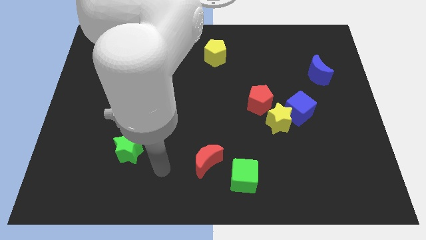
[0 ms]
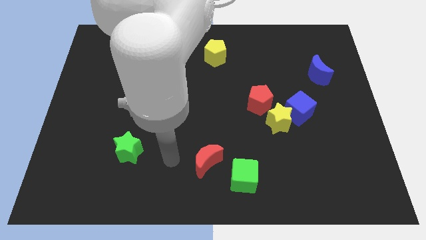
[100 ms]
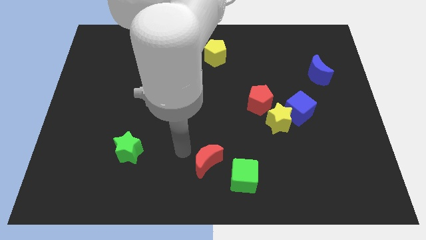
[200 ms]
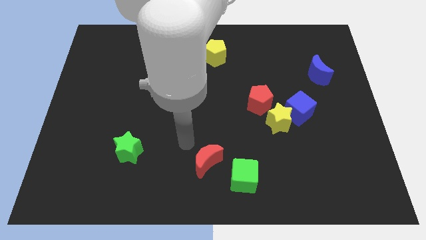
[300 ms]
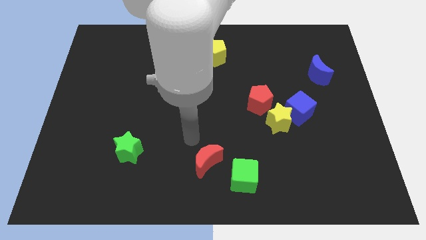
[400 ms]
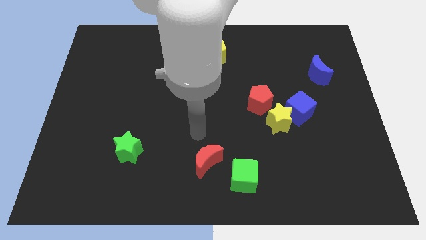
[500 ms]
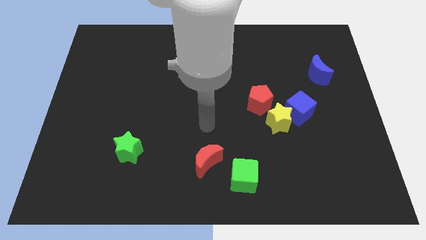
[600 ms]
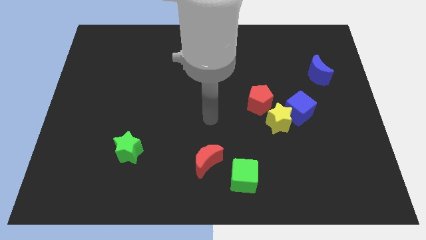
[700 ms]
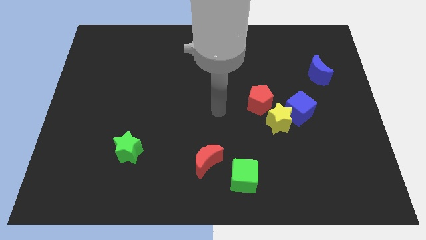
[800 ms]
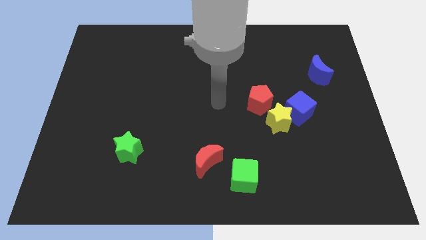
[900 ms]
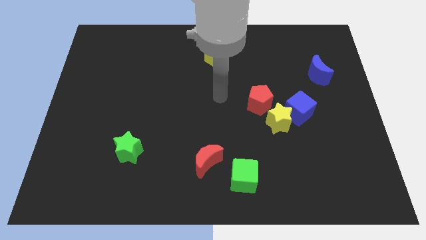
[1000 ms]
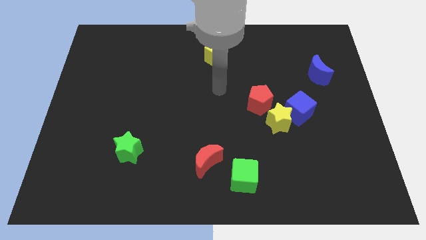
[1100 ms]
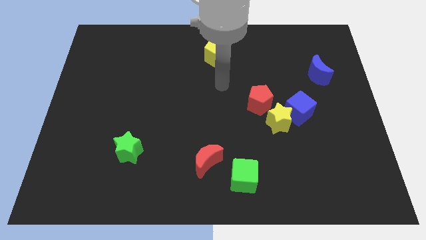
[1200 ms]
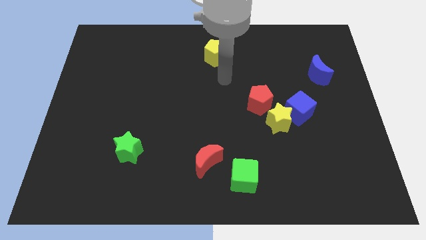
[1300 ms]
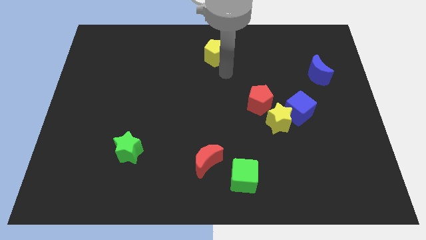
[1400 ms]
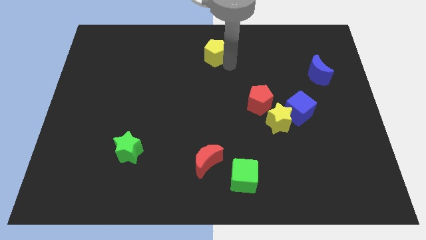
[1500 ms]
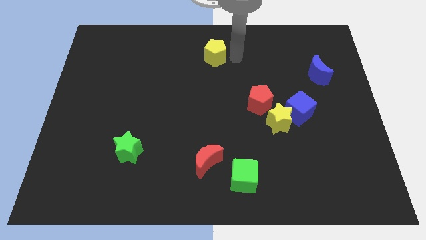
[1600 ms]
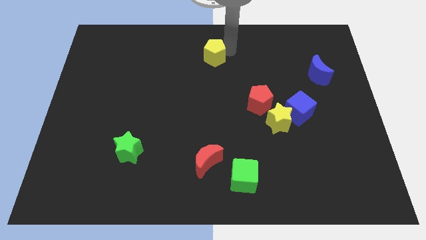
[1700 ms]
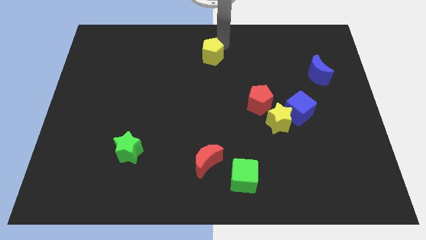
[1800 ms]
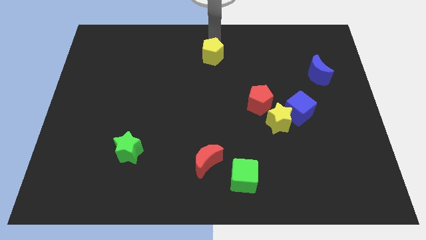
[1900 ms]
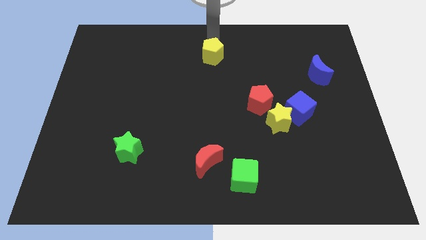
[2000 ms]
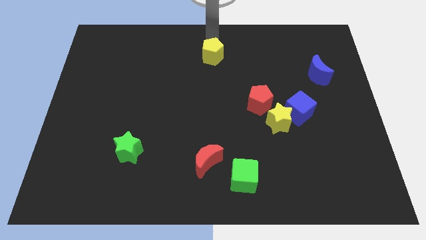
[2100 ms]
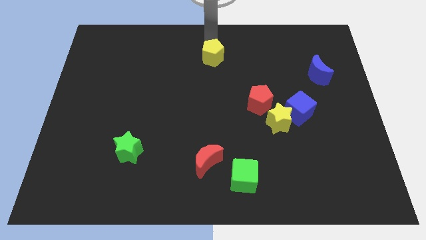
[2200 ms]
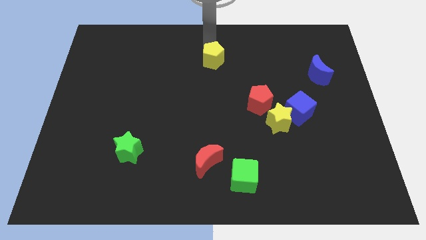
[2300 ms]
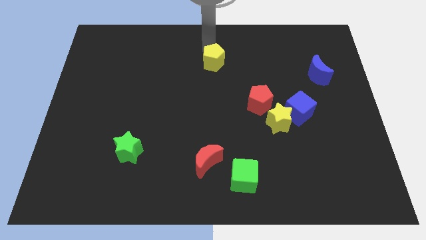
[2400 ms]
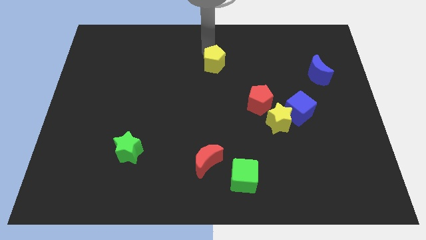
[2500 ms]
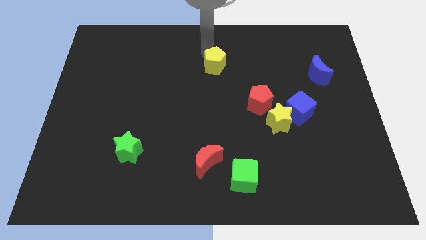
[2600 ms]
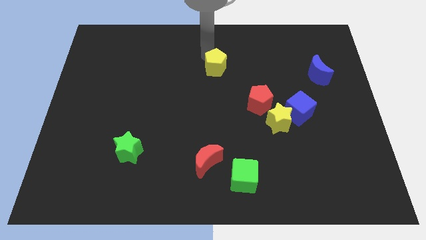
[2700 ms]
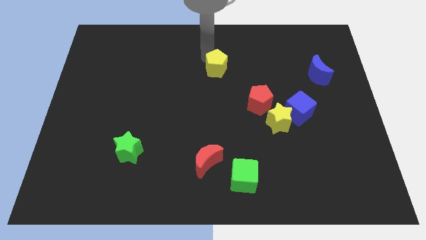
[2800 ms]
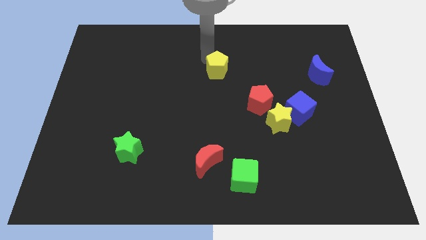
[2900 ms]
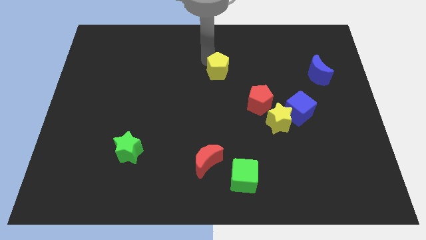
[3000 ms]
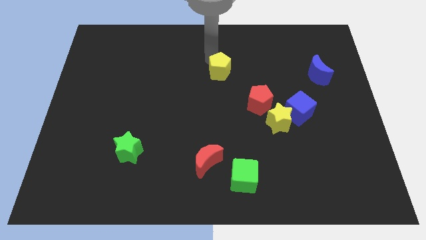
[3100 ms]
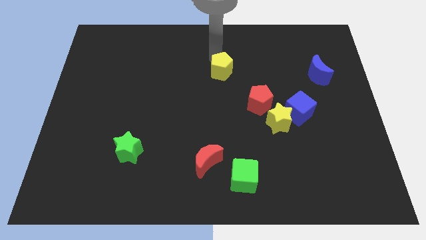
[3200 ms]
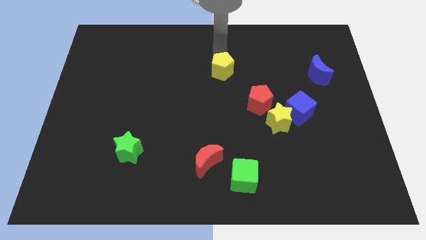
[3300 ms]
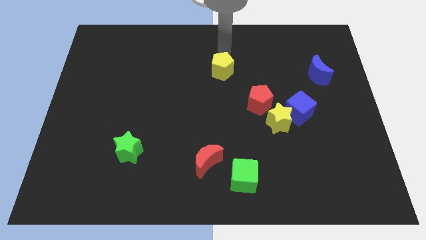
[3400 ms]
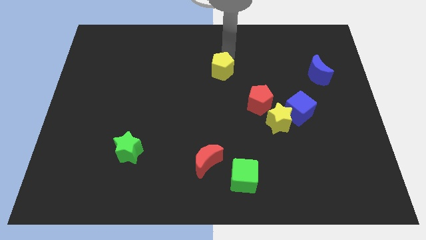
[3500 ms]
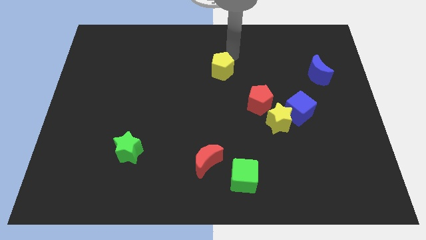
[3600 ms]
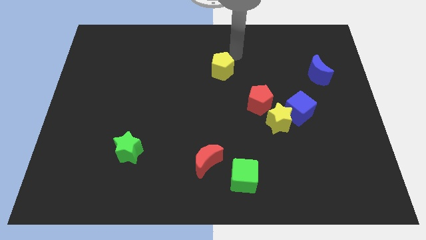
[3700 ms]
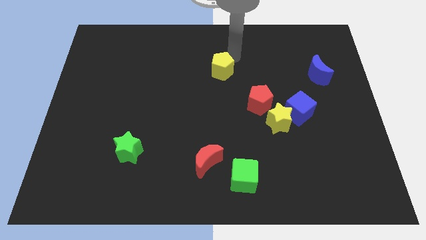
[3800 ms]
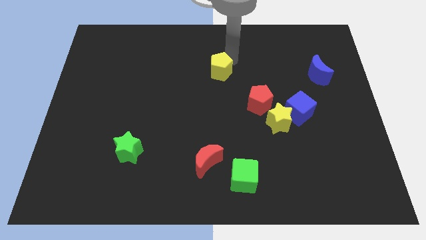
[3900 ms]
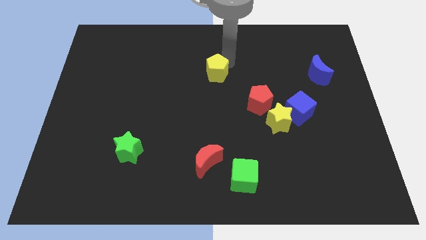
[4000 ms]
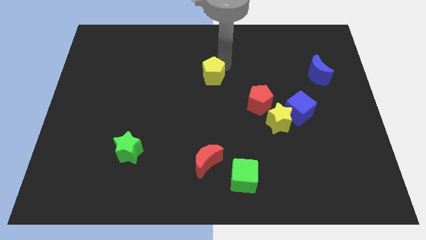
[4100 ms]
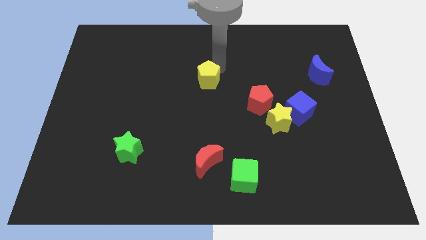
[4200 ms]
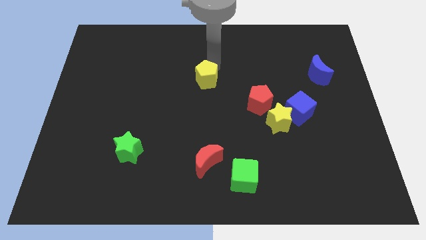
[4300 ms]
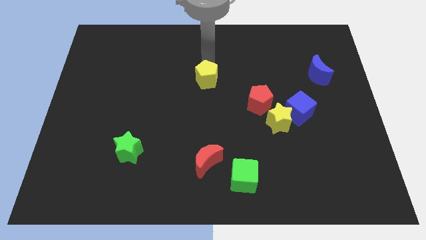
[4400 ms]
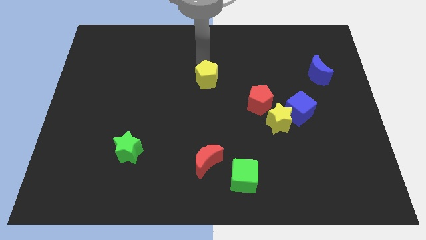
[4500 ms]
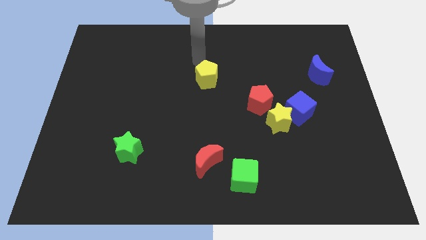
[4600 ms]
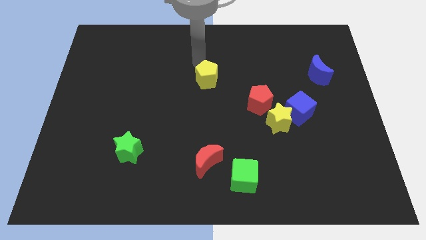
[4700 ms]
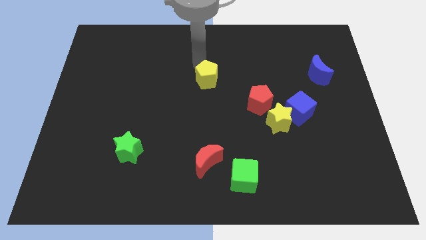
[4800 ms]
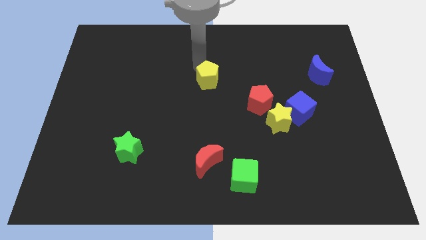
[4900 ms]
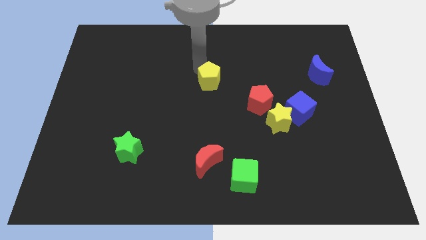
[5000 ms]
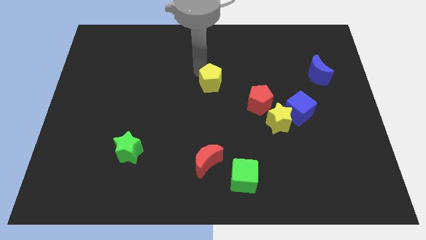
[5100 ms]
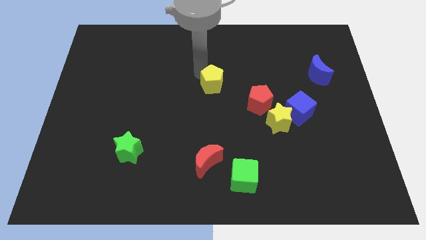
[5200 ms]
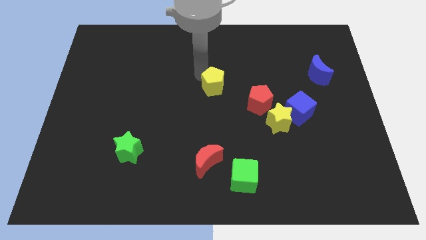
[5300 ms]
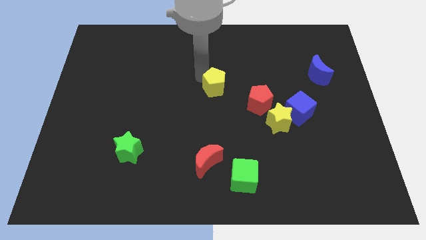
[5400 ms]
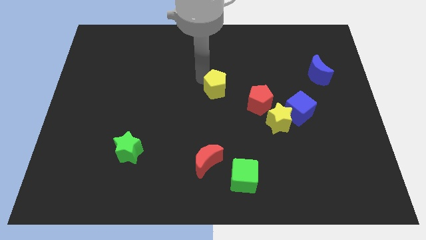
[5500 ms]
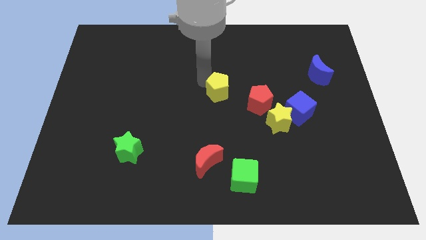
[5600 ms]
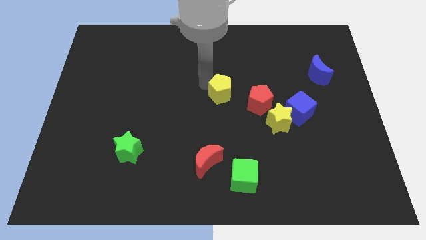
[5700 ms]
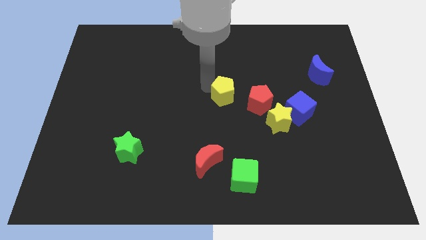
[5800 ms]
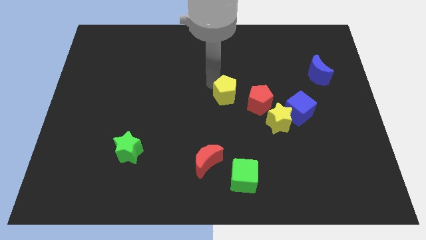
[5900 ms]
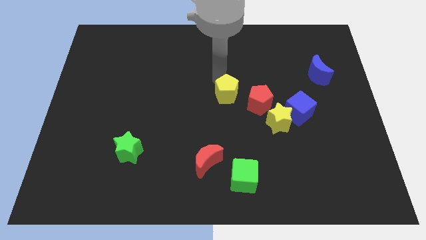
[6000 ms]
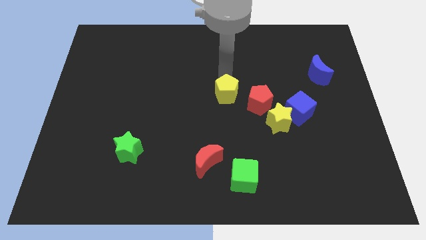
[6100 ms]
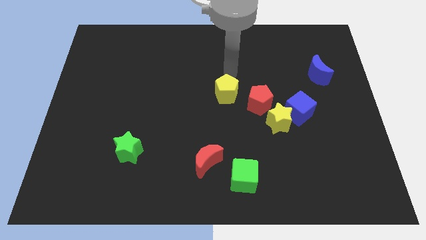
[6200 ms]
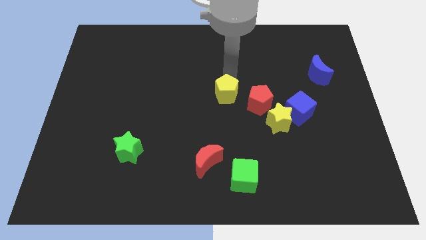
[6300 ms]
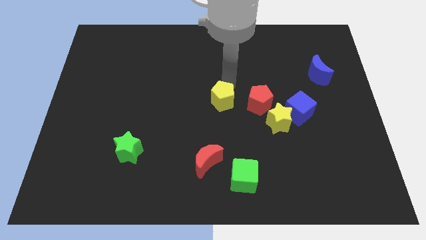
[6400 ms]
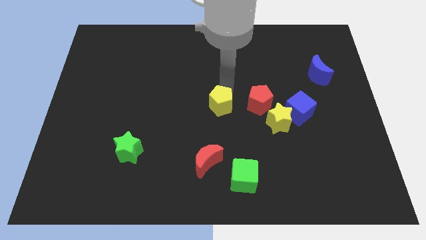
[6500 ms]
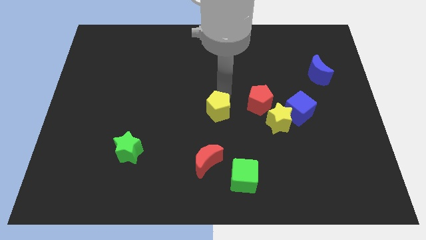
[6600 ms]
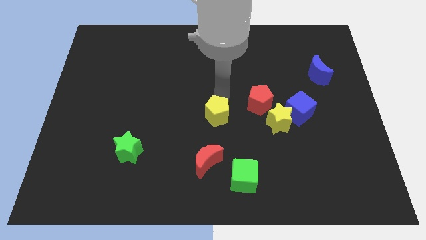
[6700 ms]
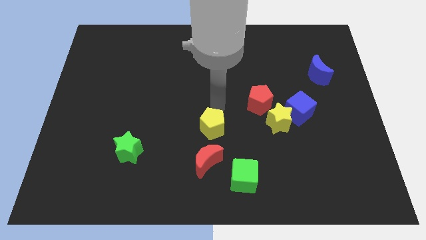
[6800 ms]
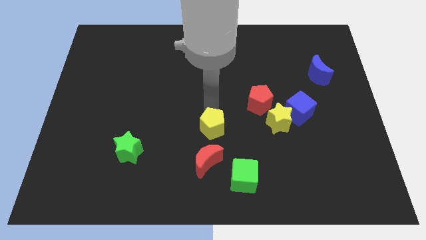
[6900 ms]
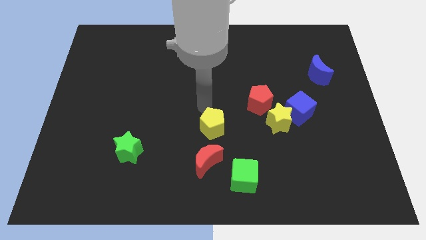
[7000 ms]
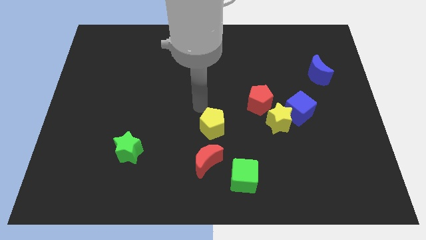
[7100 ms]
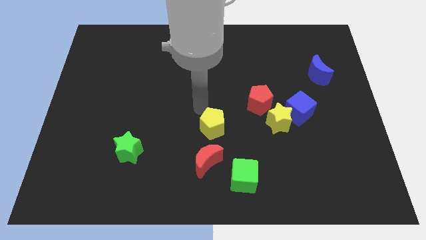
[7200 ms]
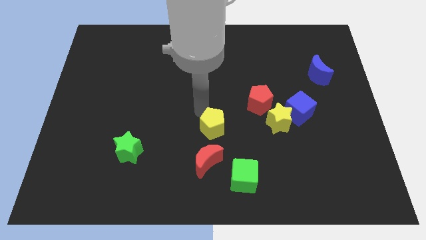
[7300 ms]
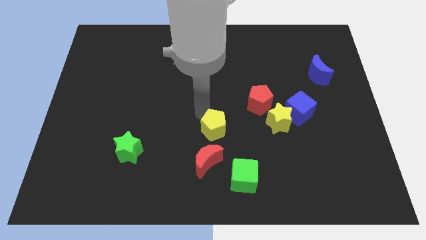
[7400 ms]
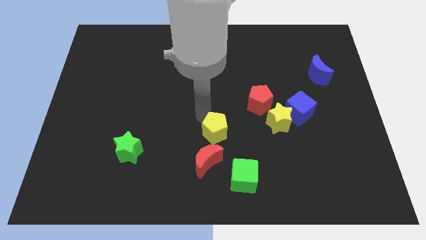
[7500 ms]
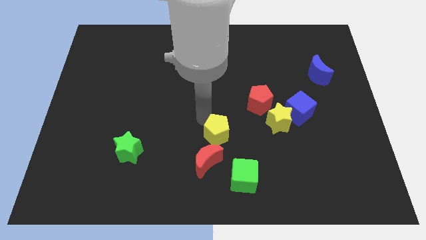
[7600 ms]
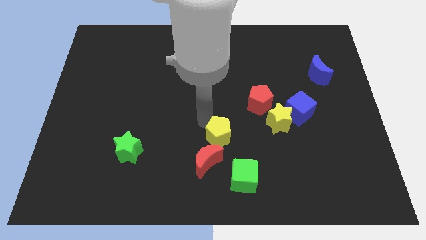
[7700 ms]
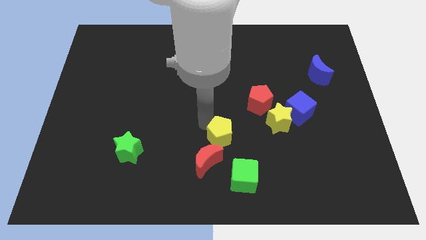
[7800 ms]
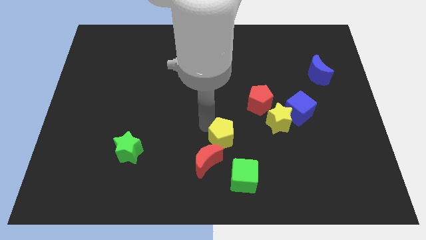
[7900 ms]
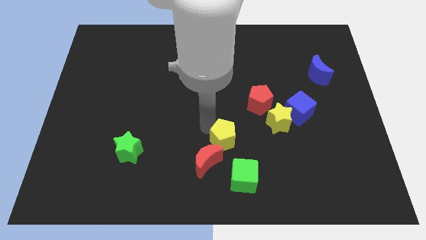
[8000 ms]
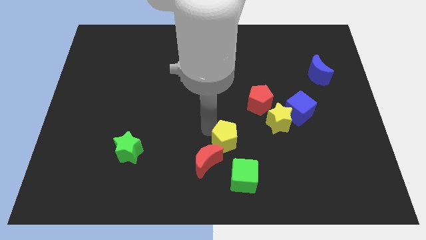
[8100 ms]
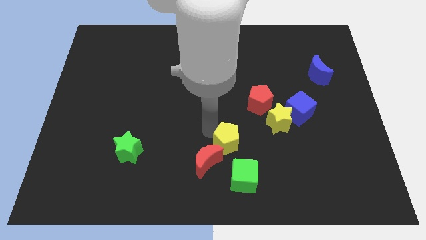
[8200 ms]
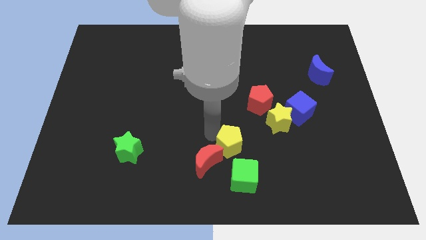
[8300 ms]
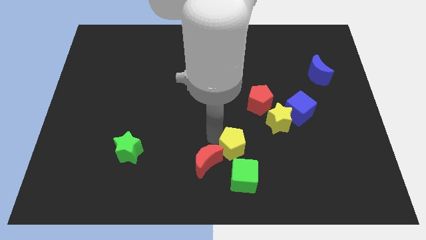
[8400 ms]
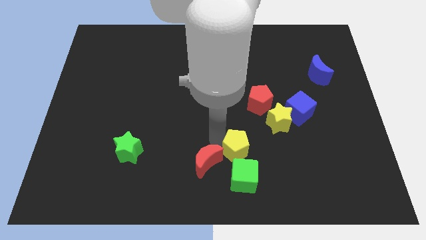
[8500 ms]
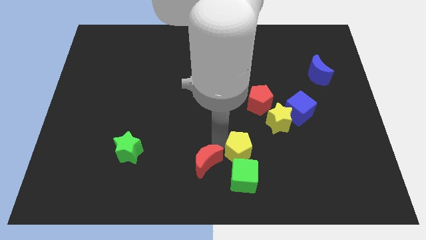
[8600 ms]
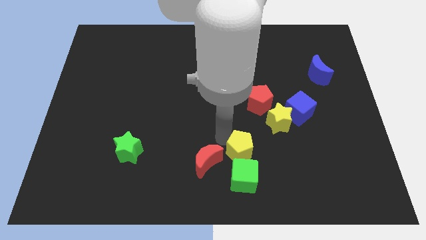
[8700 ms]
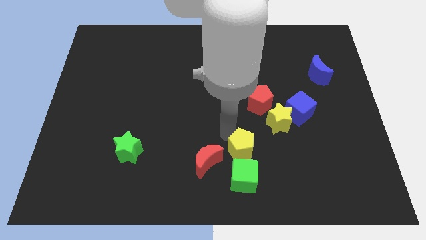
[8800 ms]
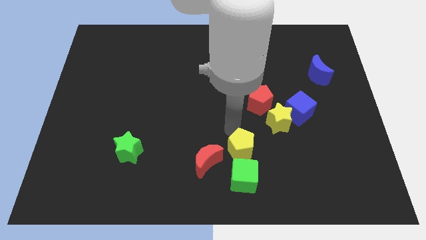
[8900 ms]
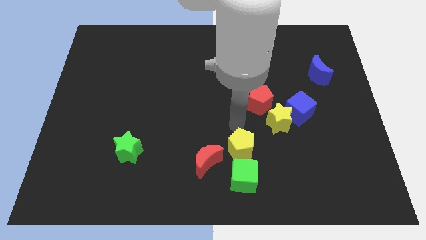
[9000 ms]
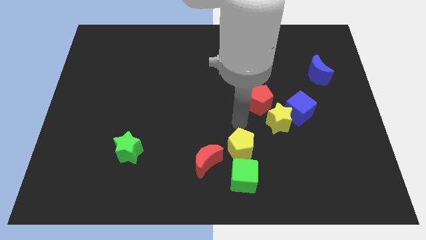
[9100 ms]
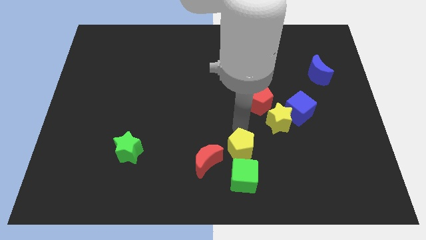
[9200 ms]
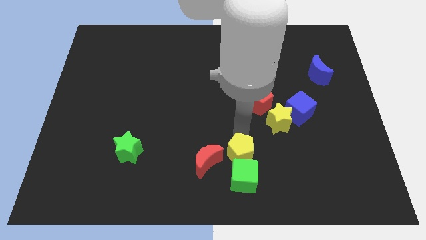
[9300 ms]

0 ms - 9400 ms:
put the yellow pentagon next to the green cube
